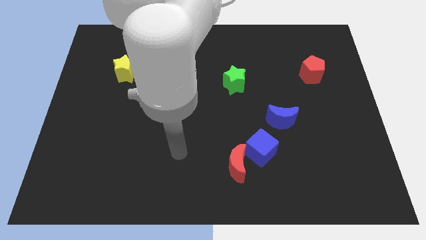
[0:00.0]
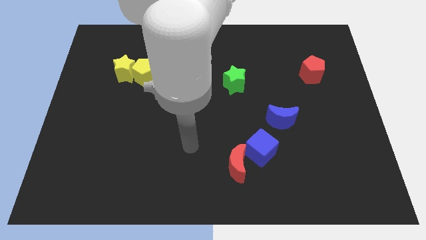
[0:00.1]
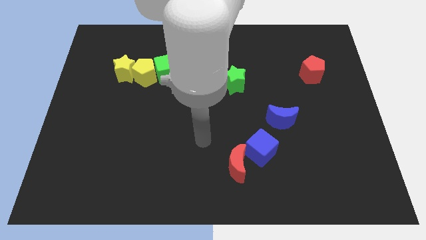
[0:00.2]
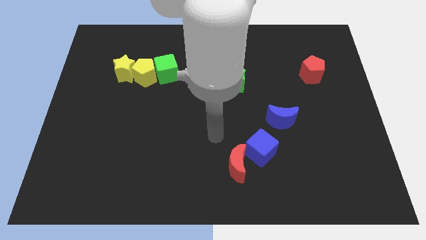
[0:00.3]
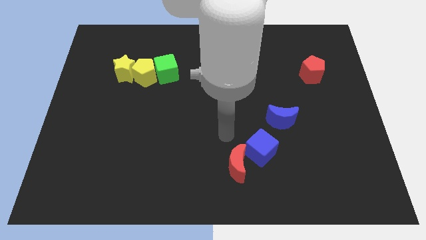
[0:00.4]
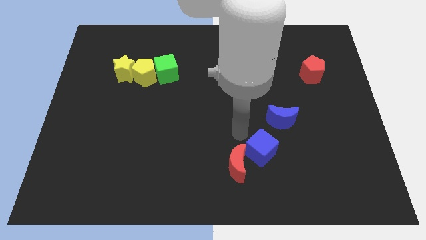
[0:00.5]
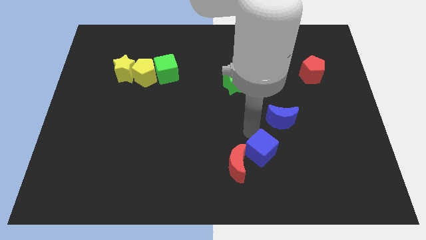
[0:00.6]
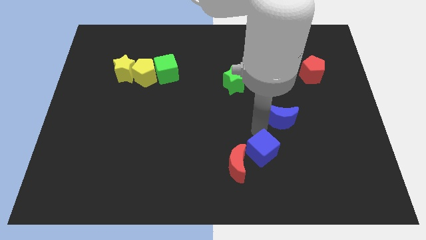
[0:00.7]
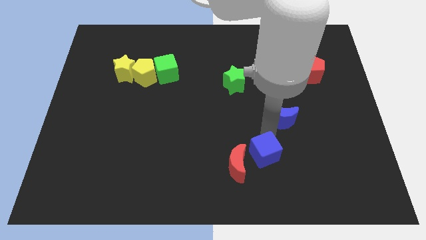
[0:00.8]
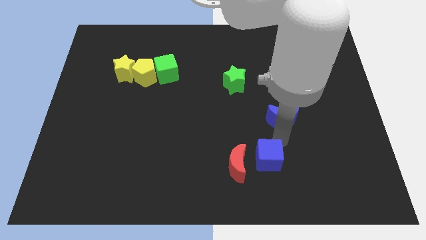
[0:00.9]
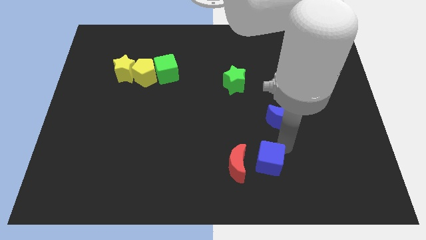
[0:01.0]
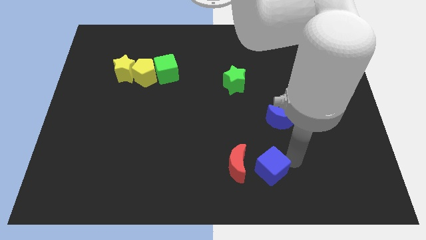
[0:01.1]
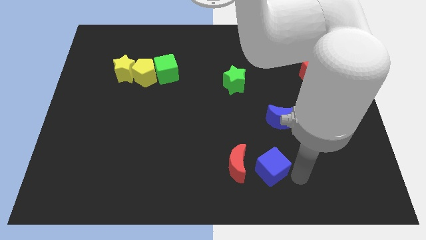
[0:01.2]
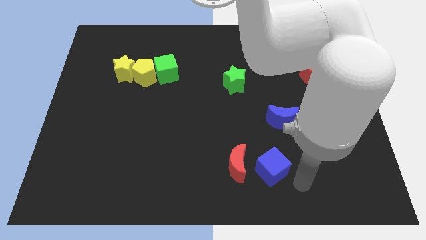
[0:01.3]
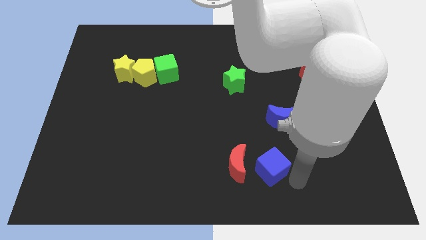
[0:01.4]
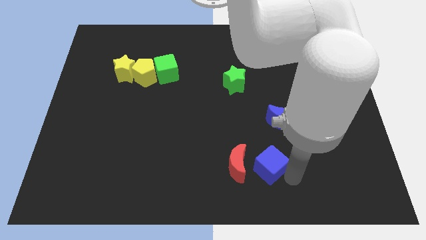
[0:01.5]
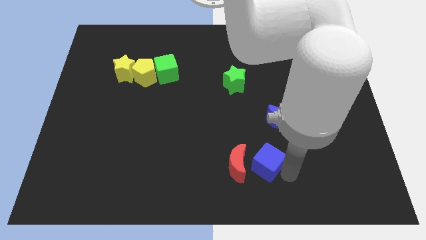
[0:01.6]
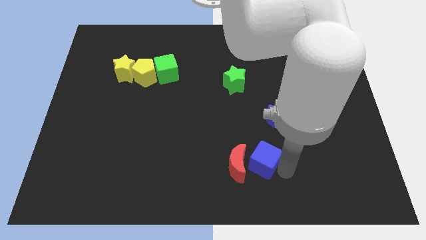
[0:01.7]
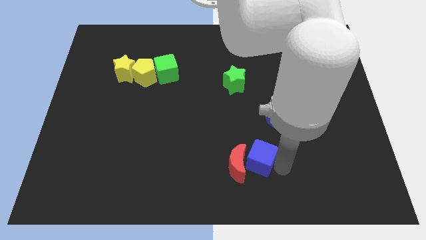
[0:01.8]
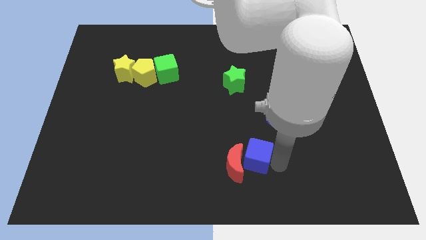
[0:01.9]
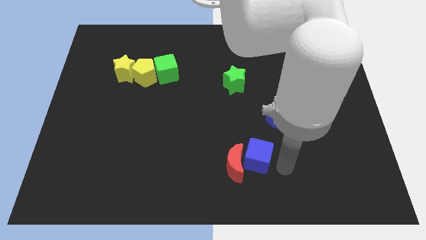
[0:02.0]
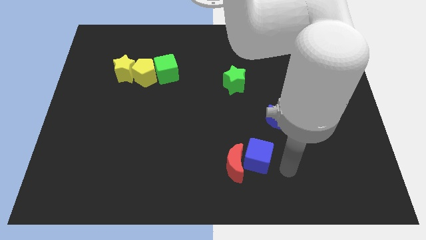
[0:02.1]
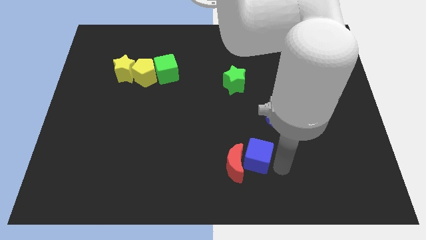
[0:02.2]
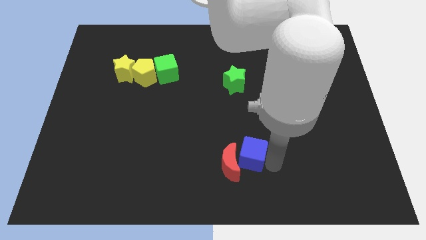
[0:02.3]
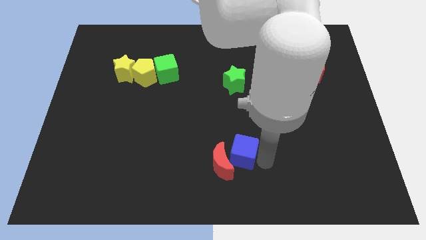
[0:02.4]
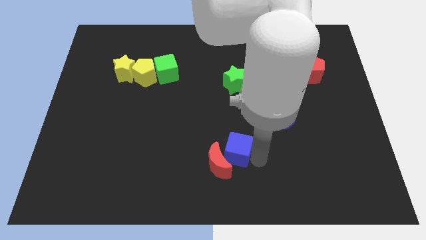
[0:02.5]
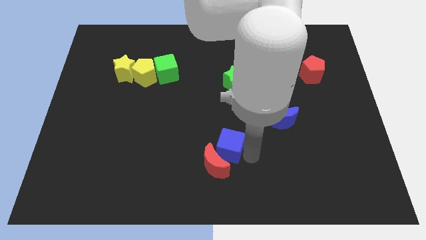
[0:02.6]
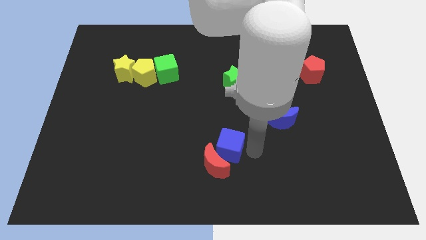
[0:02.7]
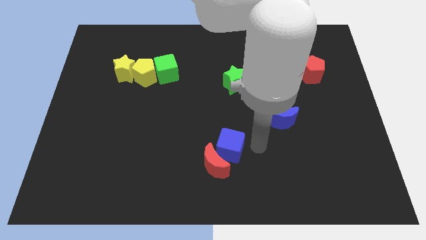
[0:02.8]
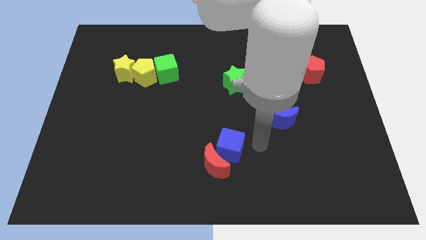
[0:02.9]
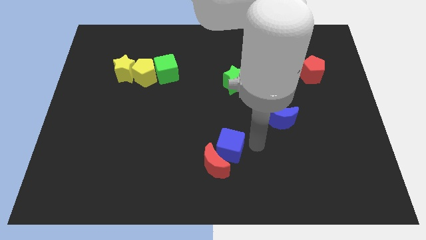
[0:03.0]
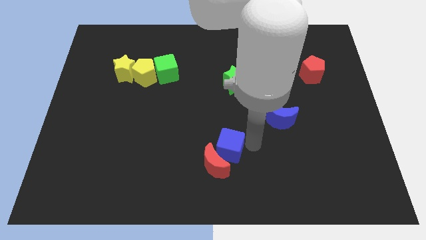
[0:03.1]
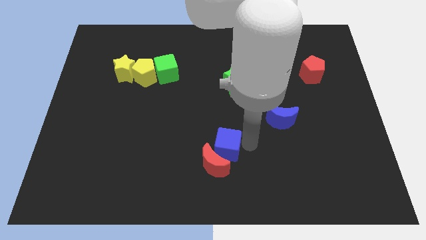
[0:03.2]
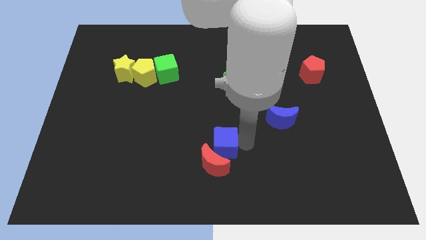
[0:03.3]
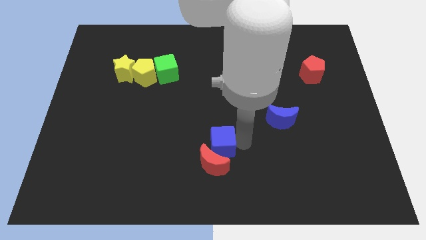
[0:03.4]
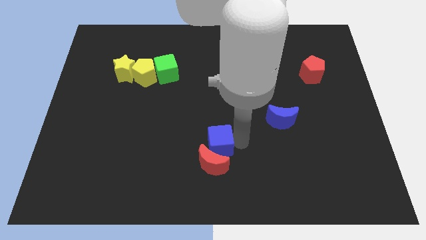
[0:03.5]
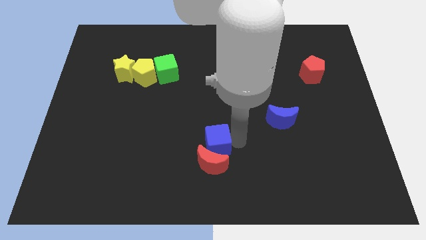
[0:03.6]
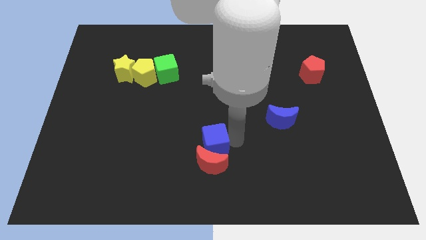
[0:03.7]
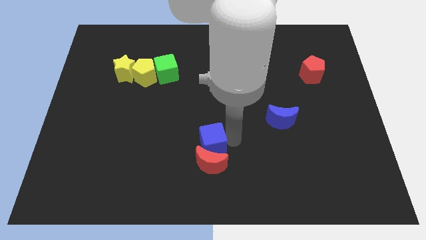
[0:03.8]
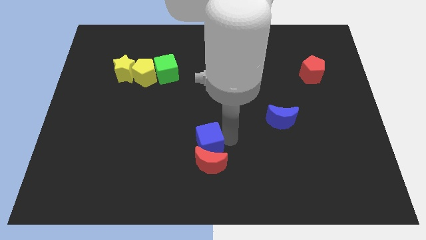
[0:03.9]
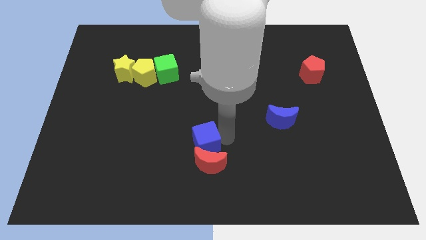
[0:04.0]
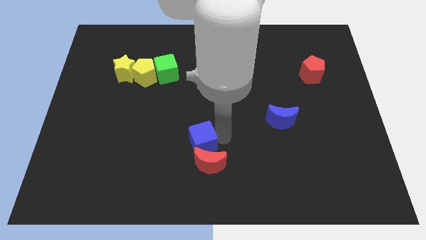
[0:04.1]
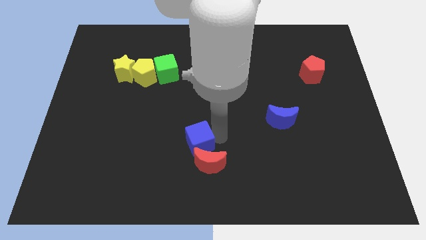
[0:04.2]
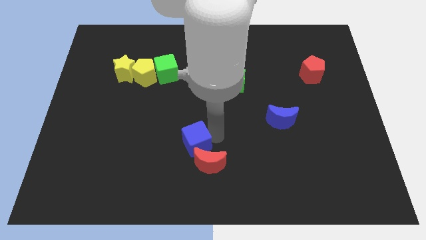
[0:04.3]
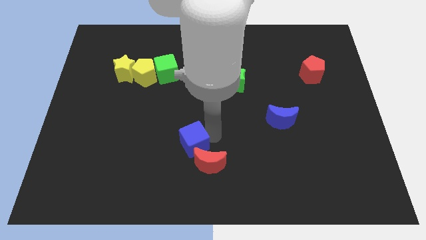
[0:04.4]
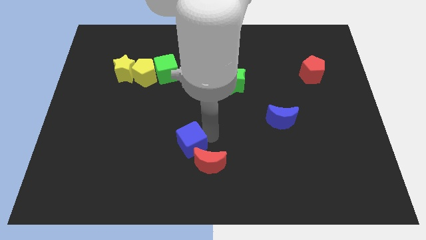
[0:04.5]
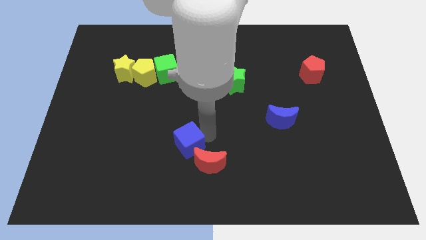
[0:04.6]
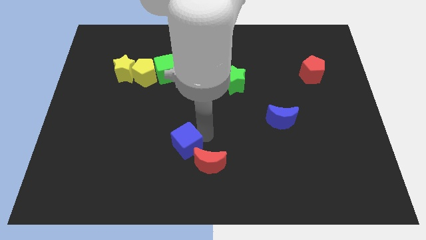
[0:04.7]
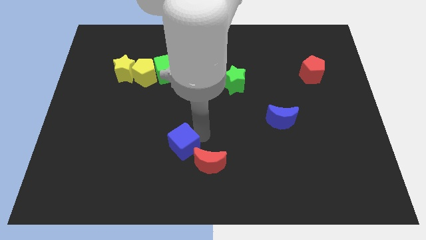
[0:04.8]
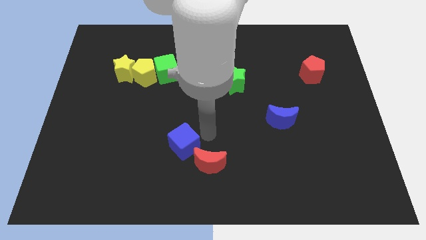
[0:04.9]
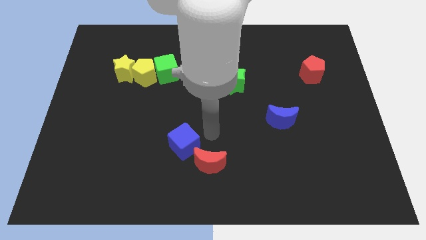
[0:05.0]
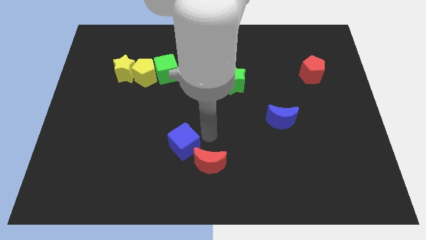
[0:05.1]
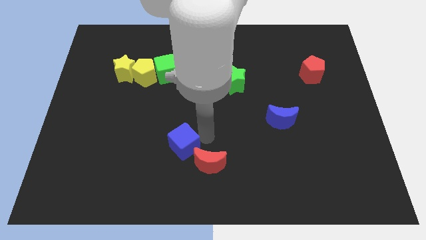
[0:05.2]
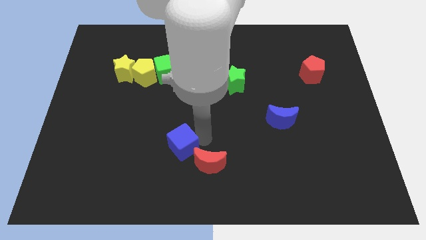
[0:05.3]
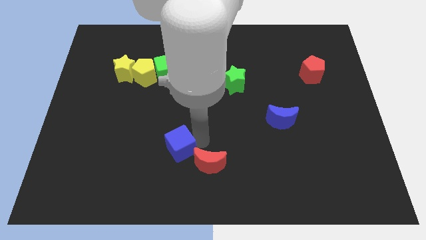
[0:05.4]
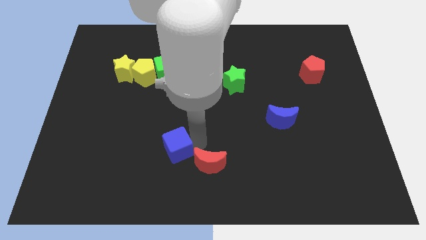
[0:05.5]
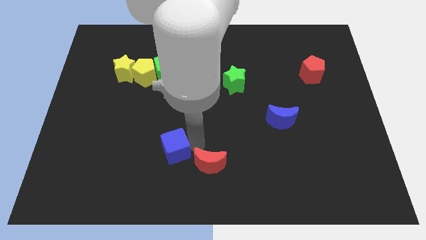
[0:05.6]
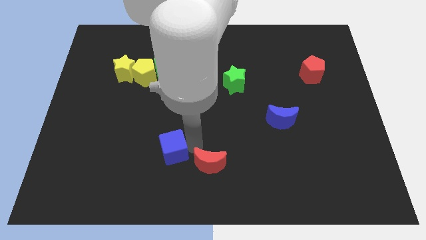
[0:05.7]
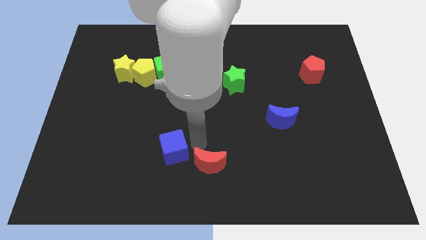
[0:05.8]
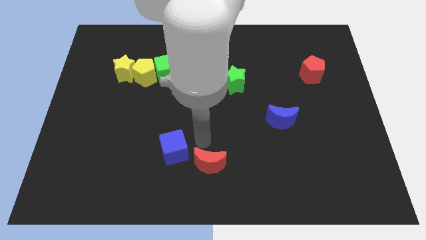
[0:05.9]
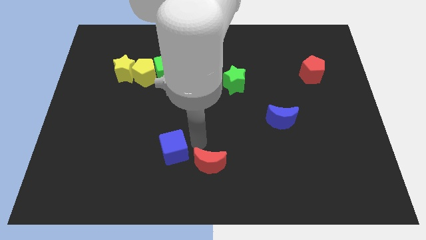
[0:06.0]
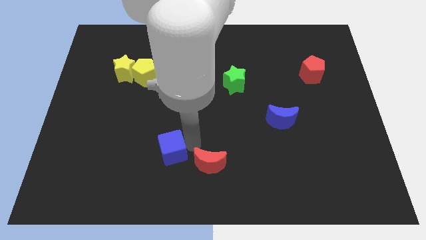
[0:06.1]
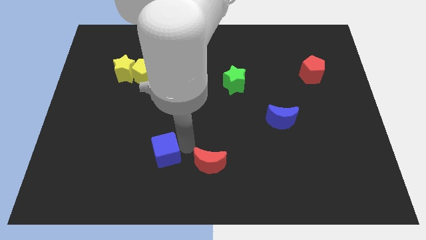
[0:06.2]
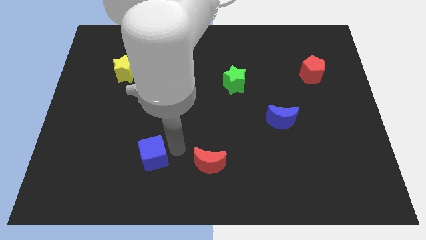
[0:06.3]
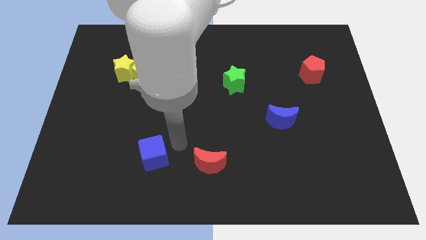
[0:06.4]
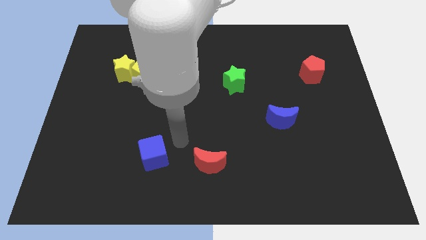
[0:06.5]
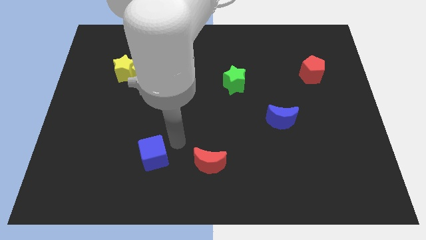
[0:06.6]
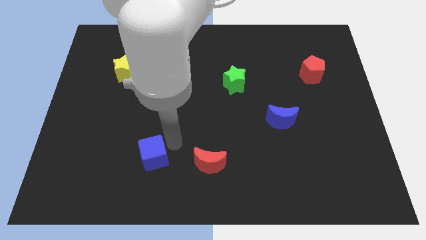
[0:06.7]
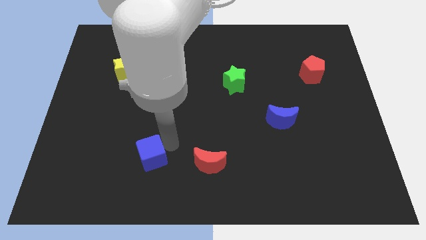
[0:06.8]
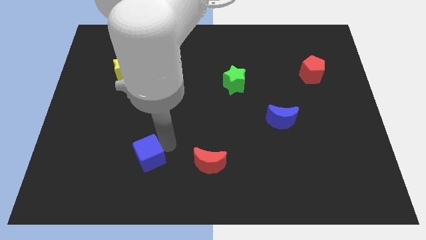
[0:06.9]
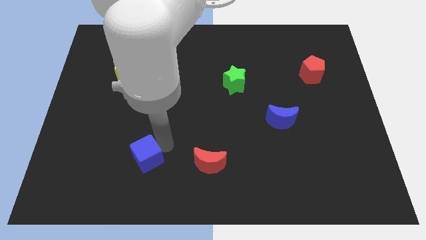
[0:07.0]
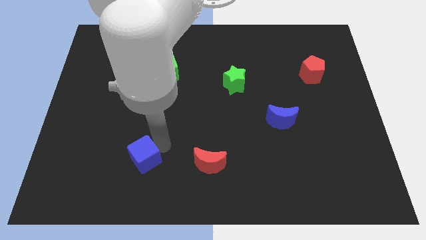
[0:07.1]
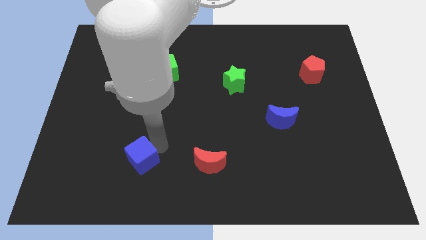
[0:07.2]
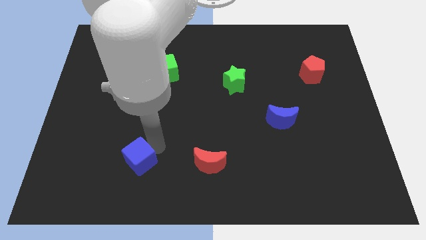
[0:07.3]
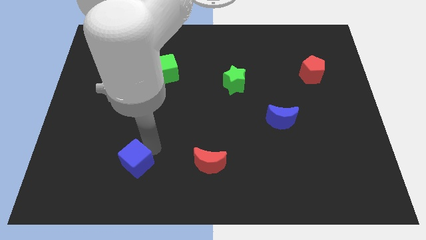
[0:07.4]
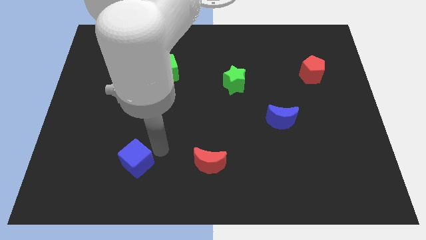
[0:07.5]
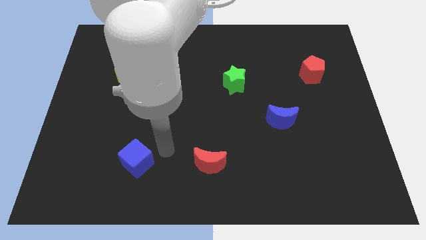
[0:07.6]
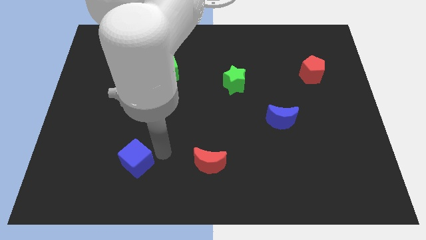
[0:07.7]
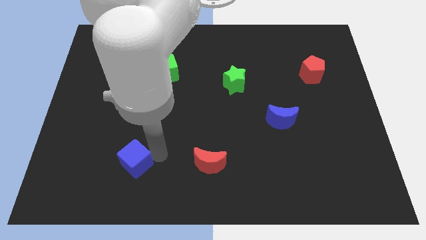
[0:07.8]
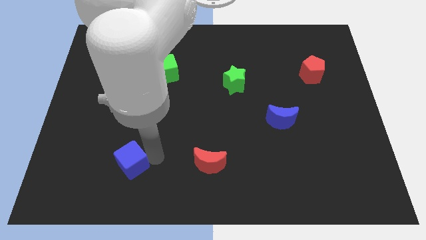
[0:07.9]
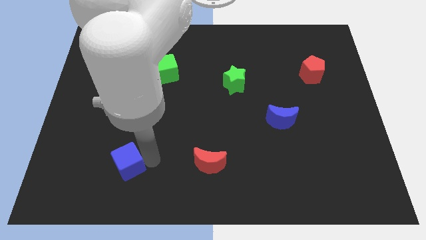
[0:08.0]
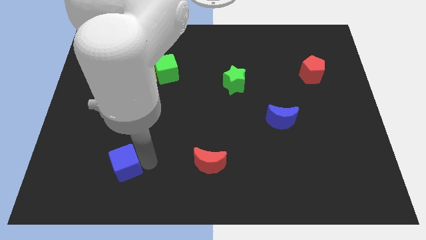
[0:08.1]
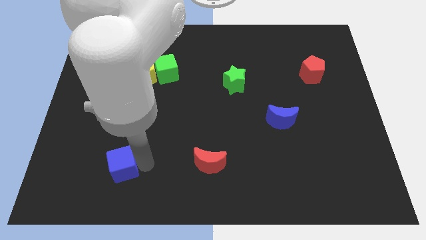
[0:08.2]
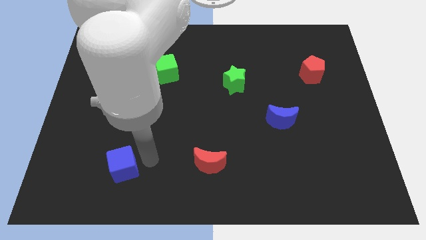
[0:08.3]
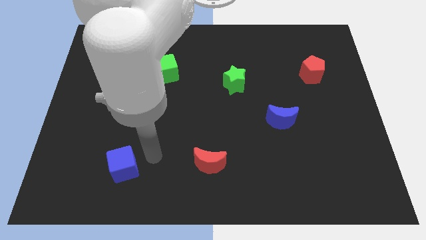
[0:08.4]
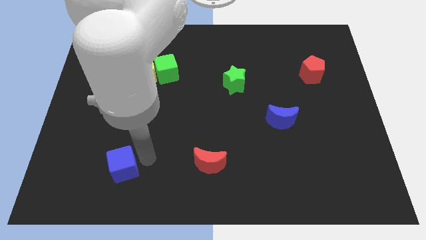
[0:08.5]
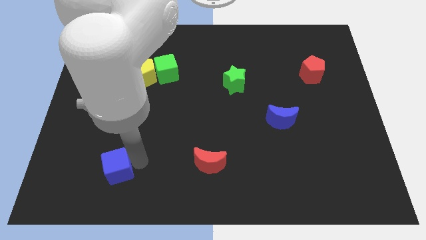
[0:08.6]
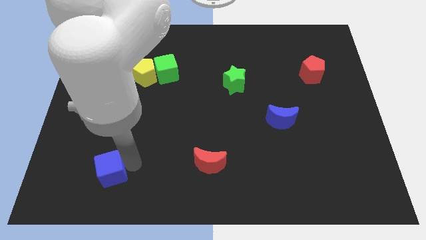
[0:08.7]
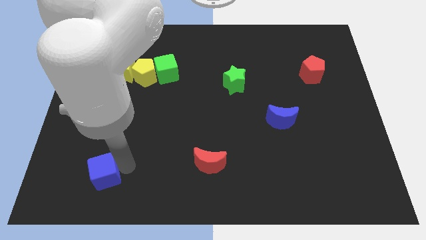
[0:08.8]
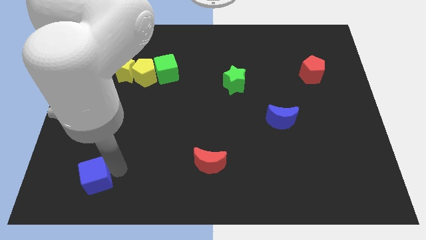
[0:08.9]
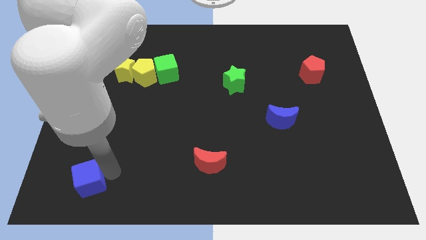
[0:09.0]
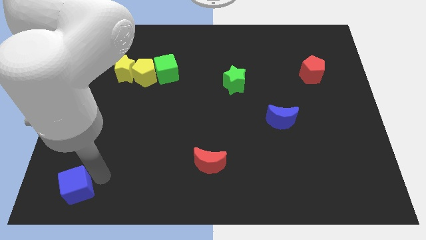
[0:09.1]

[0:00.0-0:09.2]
move the blue cube to the bottom left corner
